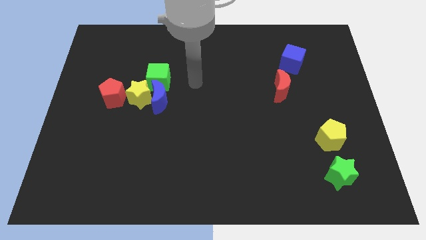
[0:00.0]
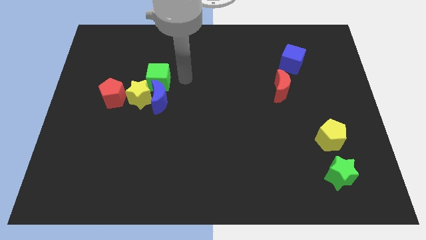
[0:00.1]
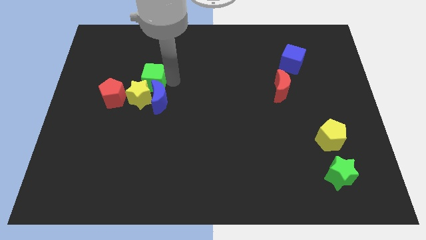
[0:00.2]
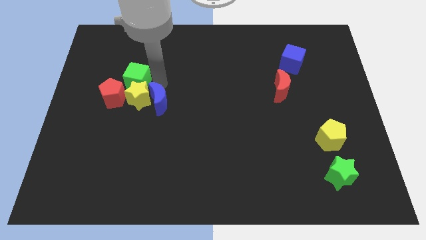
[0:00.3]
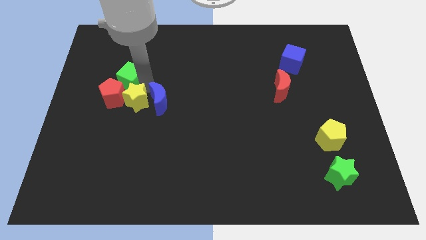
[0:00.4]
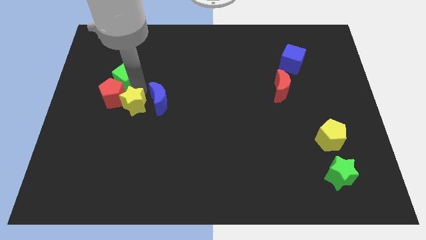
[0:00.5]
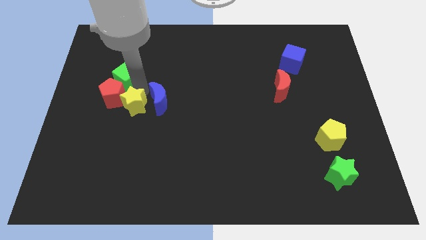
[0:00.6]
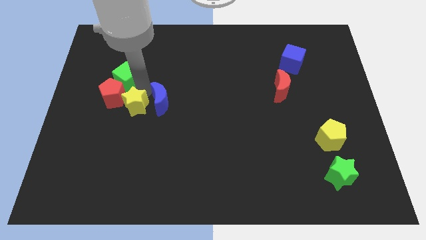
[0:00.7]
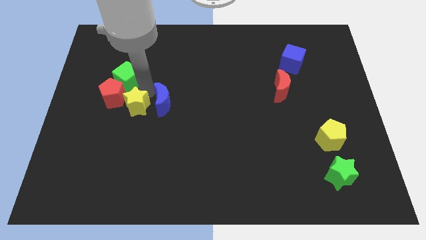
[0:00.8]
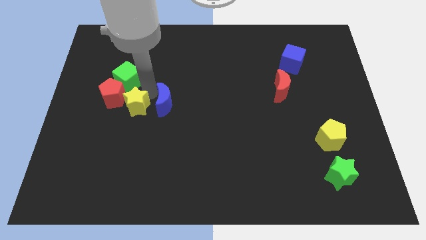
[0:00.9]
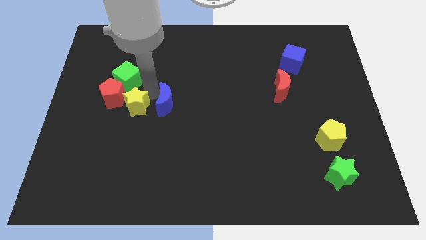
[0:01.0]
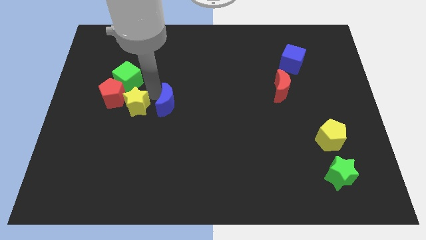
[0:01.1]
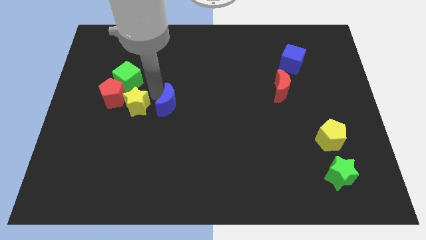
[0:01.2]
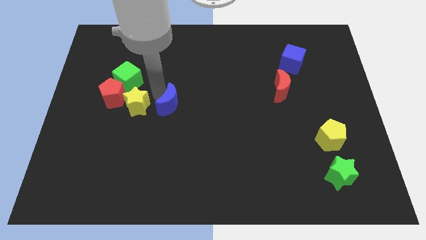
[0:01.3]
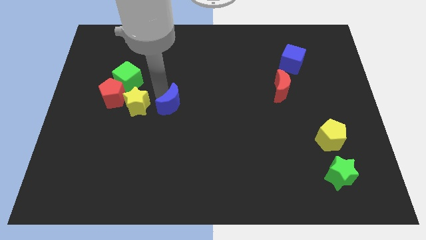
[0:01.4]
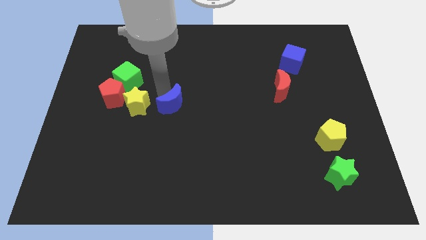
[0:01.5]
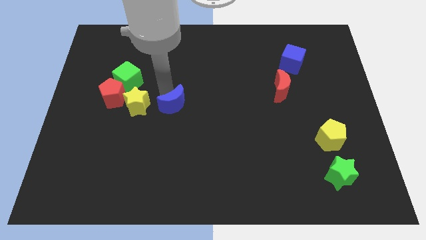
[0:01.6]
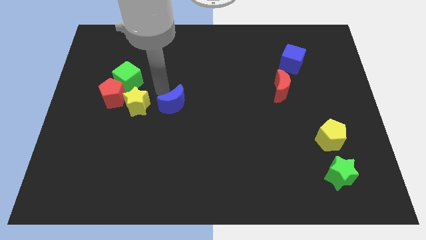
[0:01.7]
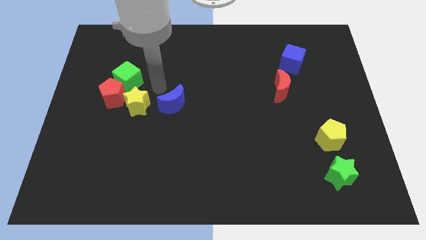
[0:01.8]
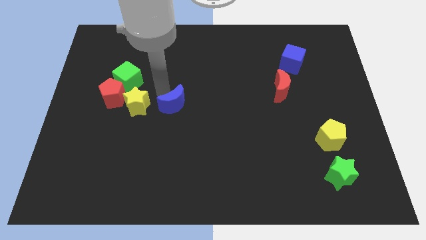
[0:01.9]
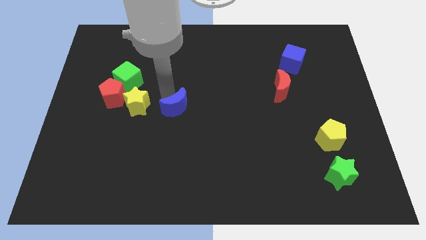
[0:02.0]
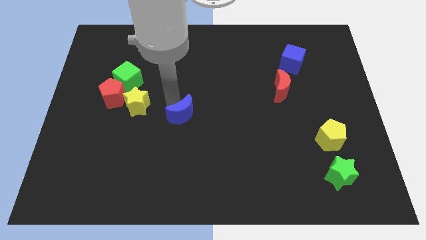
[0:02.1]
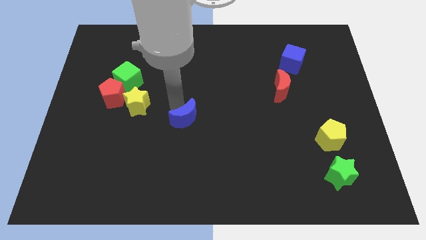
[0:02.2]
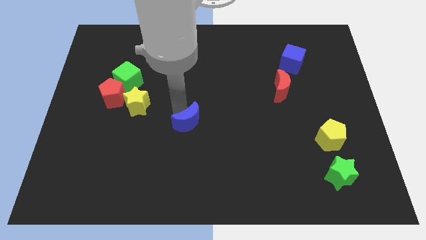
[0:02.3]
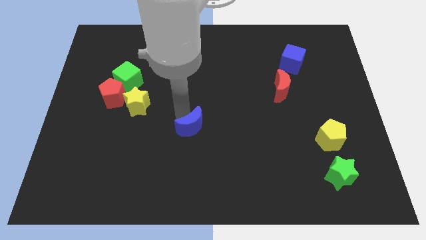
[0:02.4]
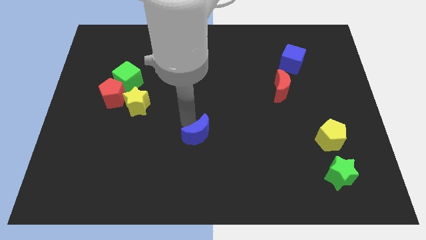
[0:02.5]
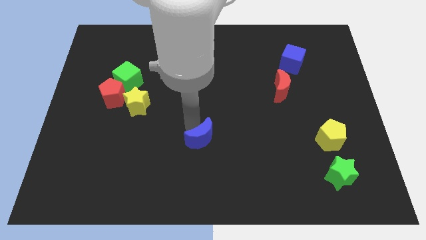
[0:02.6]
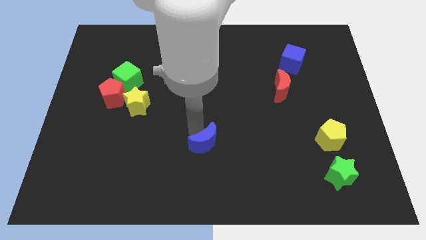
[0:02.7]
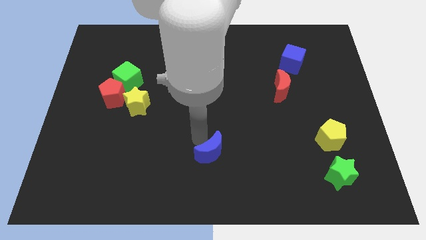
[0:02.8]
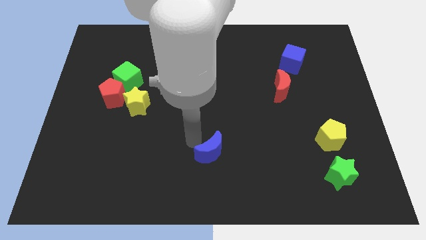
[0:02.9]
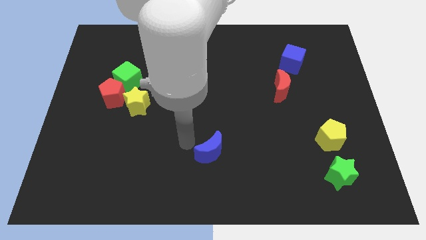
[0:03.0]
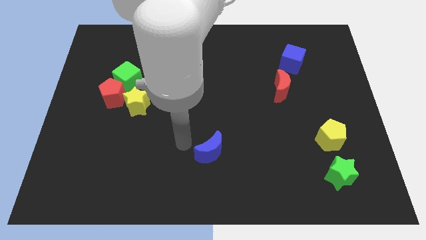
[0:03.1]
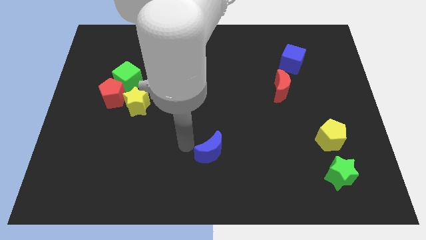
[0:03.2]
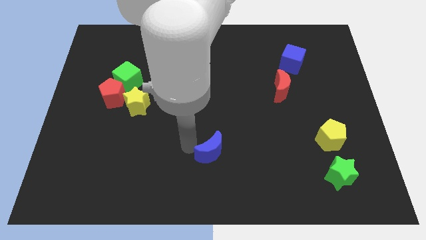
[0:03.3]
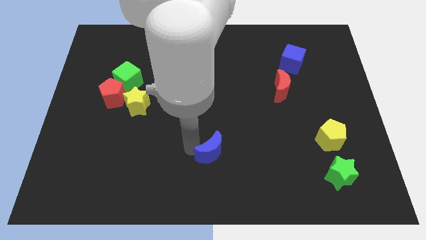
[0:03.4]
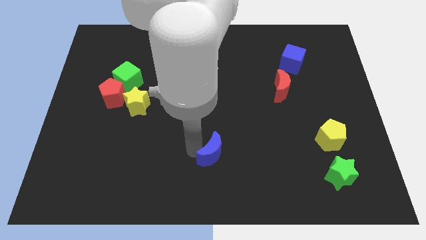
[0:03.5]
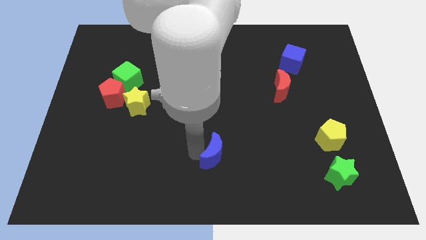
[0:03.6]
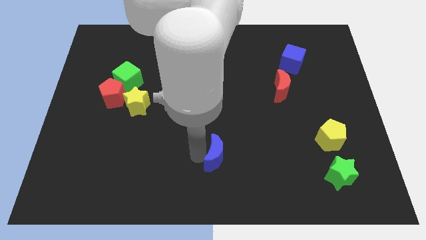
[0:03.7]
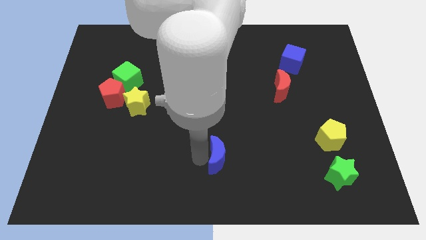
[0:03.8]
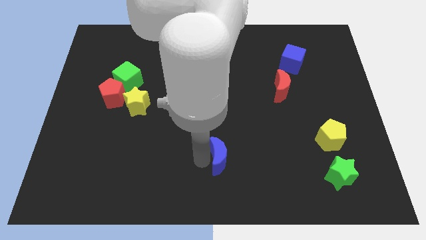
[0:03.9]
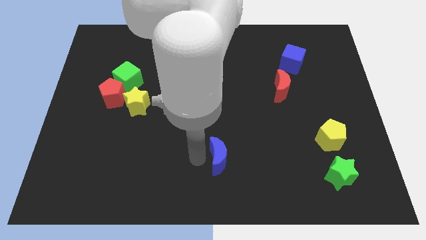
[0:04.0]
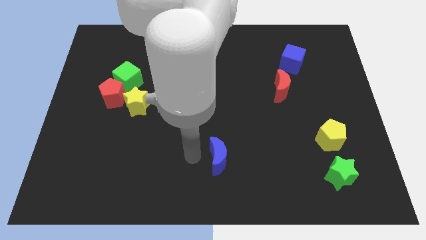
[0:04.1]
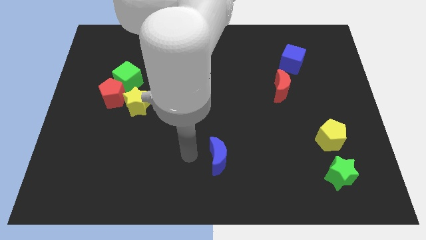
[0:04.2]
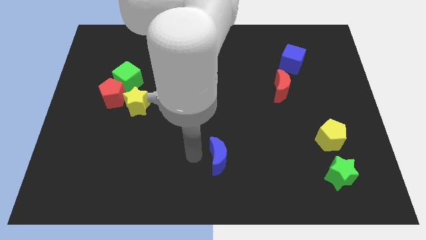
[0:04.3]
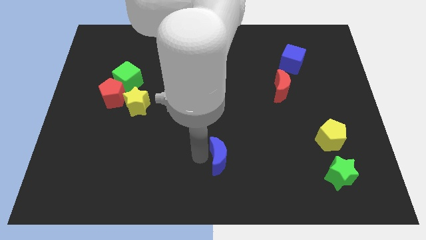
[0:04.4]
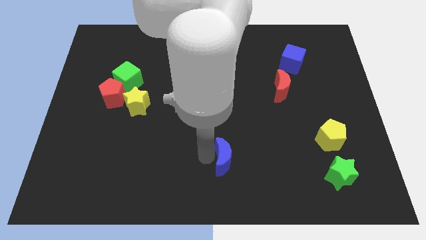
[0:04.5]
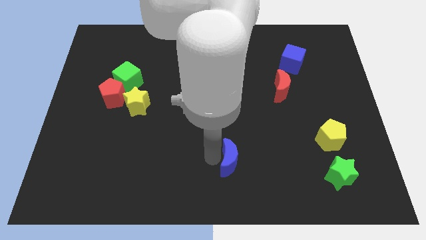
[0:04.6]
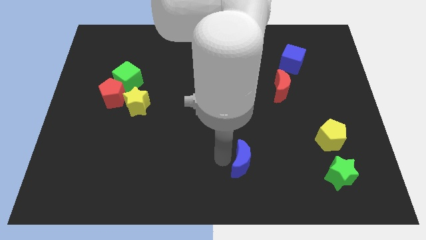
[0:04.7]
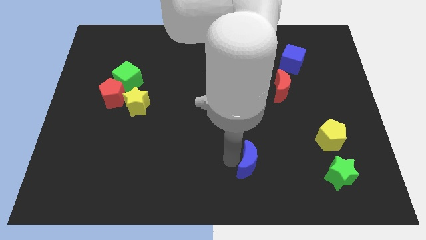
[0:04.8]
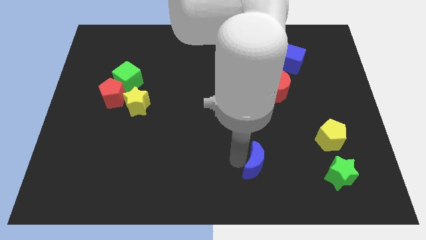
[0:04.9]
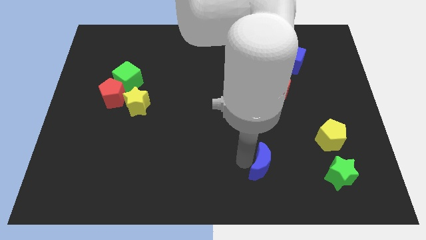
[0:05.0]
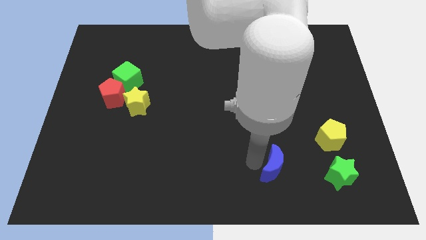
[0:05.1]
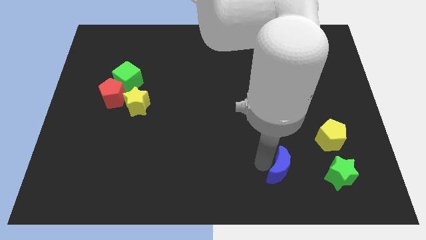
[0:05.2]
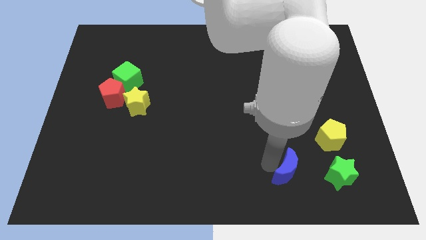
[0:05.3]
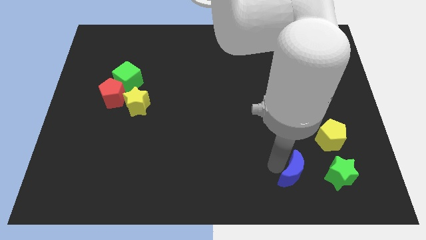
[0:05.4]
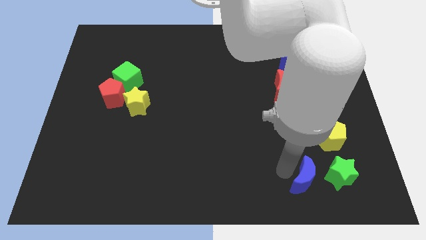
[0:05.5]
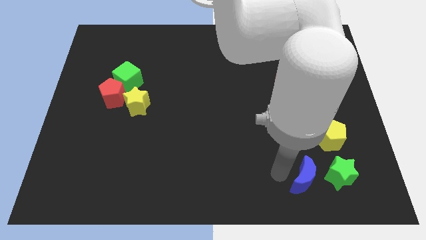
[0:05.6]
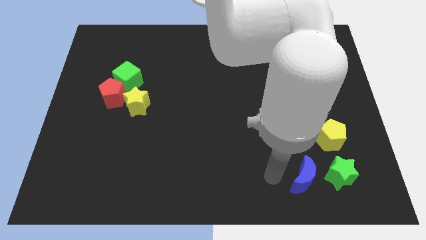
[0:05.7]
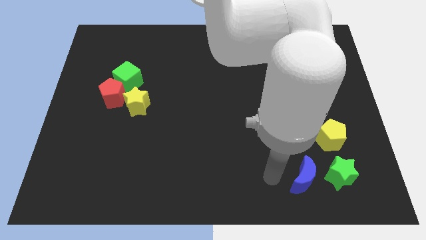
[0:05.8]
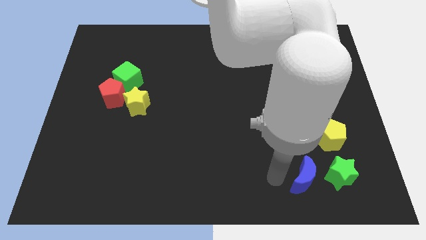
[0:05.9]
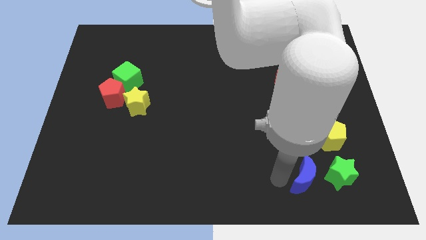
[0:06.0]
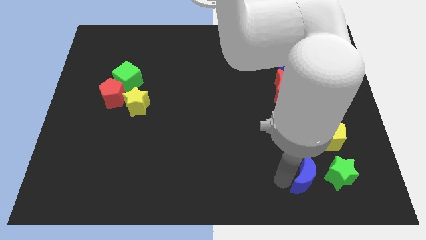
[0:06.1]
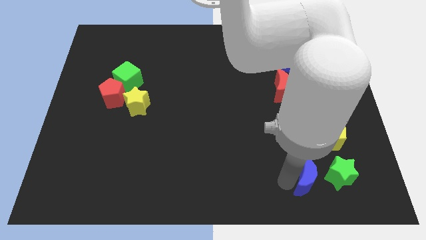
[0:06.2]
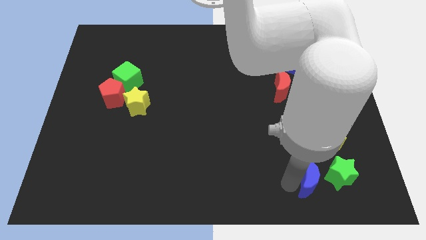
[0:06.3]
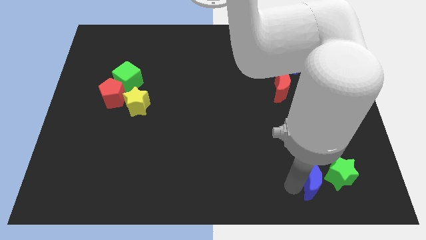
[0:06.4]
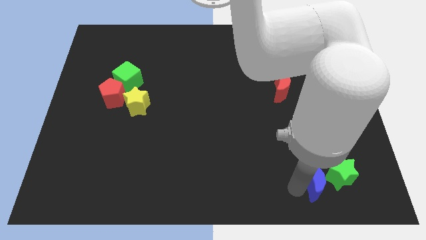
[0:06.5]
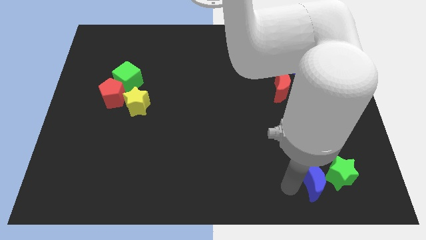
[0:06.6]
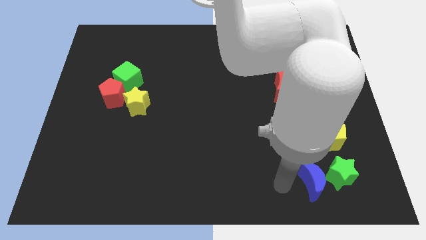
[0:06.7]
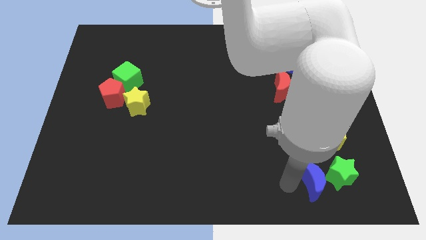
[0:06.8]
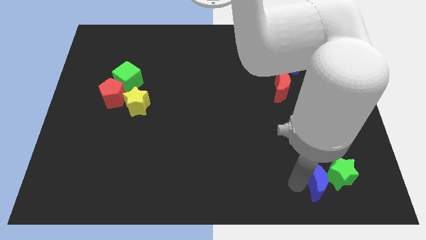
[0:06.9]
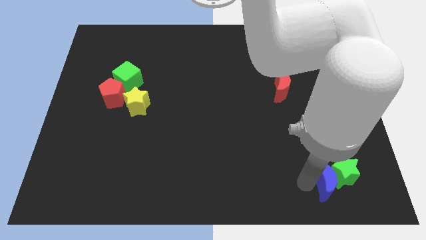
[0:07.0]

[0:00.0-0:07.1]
move the blue moon to the bottom side of the yellow pentagon
